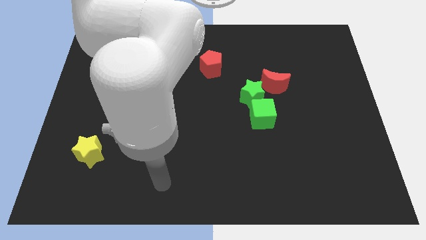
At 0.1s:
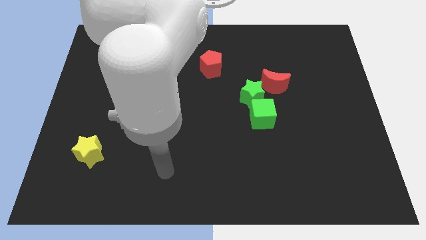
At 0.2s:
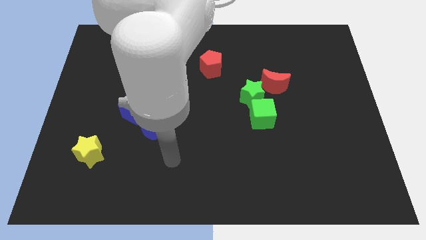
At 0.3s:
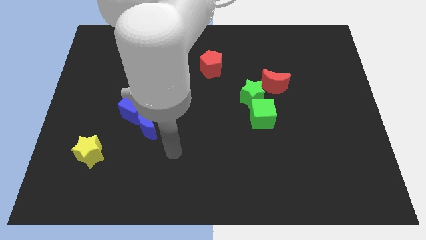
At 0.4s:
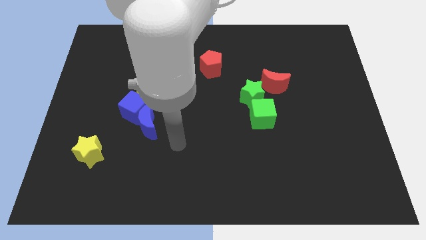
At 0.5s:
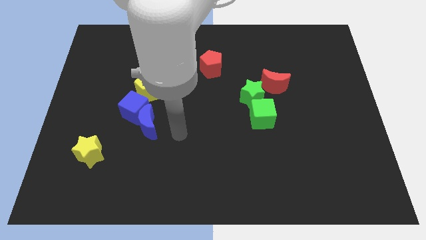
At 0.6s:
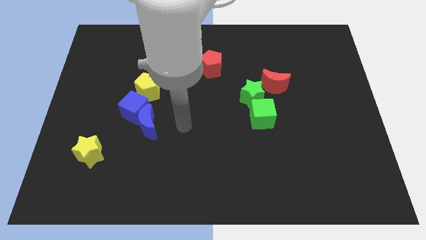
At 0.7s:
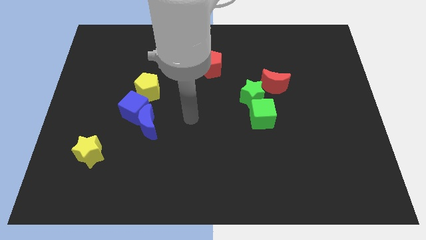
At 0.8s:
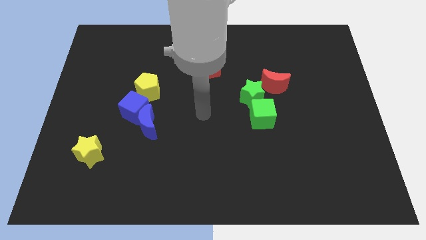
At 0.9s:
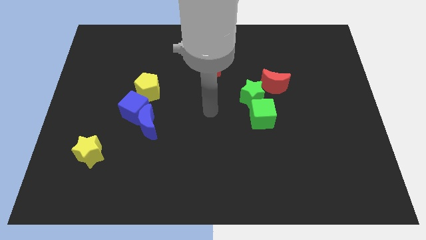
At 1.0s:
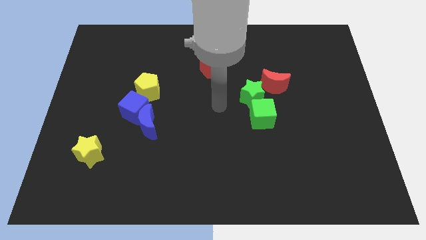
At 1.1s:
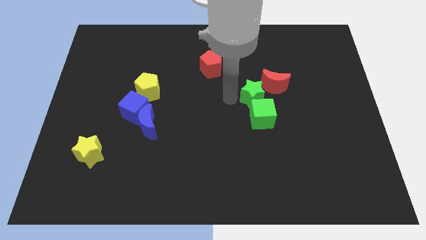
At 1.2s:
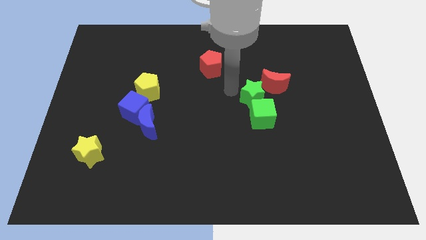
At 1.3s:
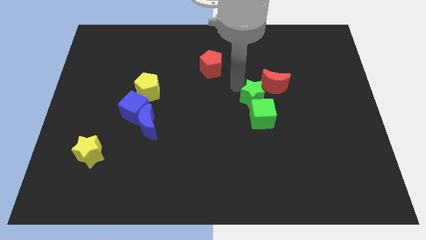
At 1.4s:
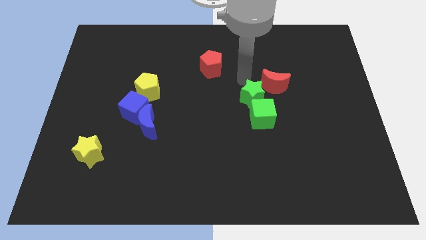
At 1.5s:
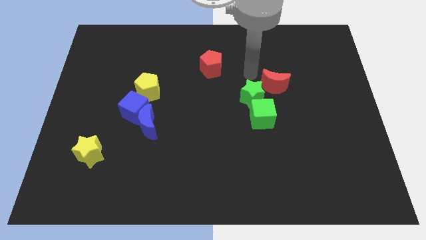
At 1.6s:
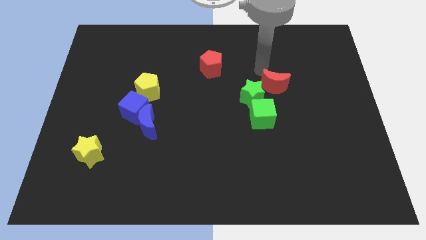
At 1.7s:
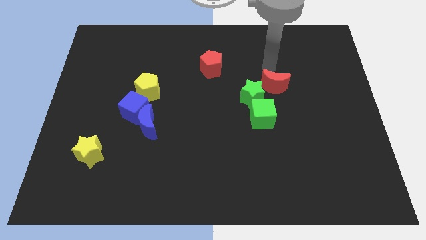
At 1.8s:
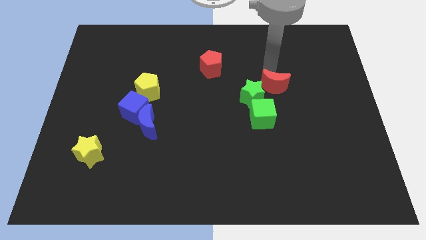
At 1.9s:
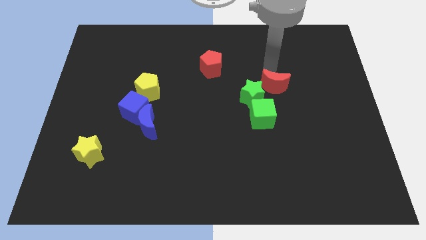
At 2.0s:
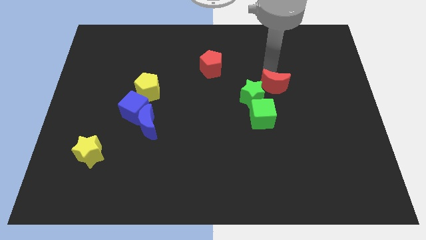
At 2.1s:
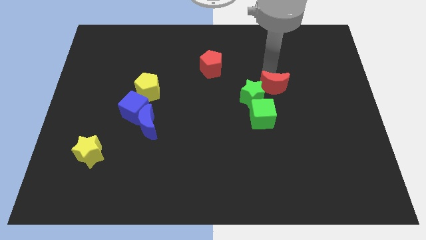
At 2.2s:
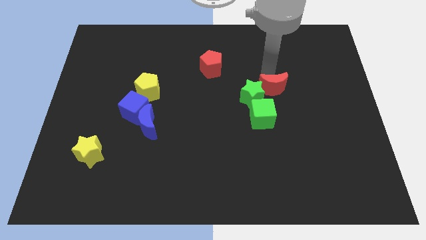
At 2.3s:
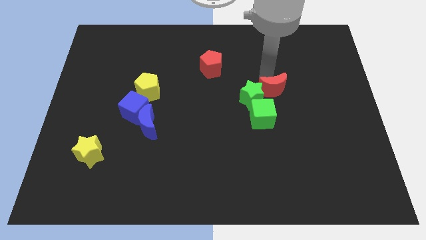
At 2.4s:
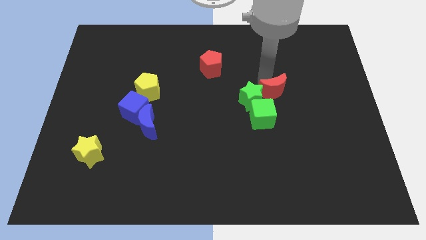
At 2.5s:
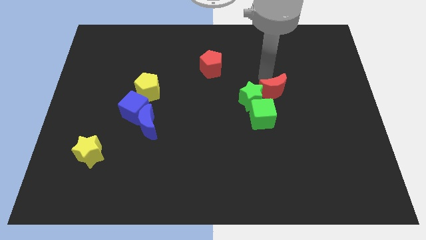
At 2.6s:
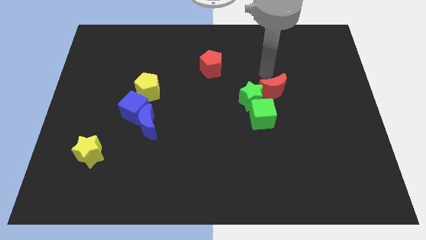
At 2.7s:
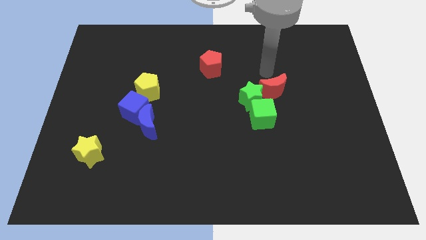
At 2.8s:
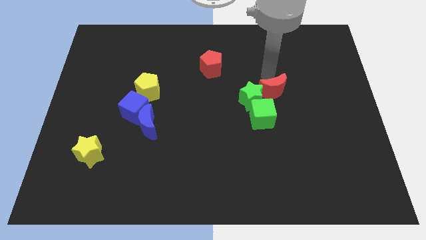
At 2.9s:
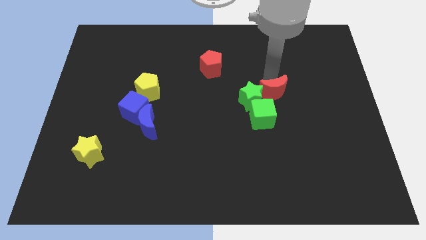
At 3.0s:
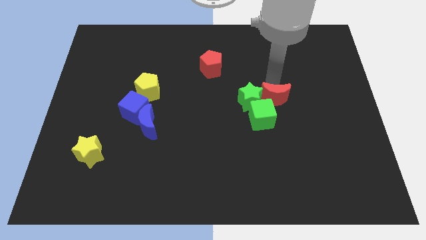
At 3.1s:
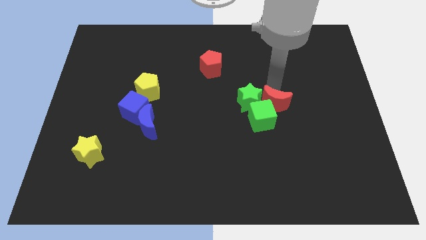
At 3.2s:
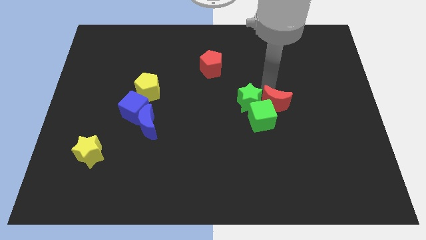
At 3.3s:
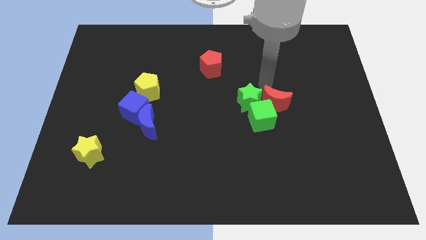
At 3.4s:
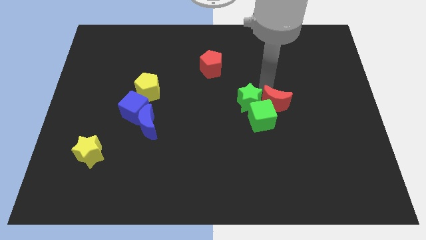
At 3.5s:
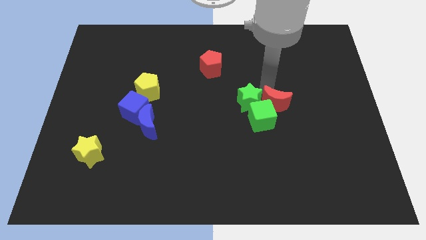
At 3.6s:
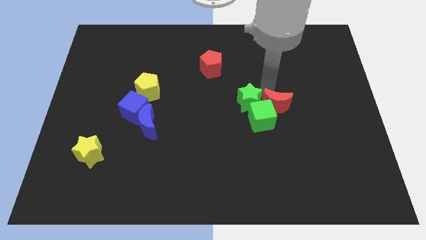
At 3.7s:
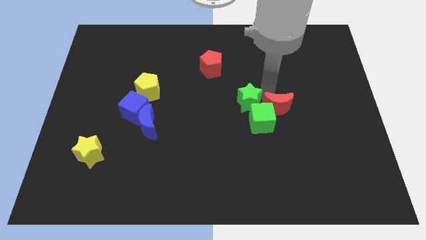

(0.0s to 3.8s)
slightly push the red moon down

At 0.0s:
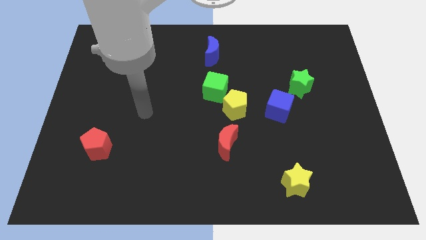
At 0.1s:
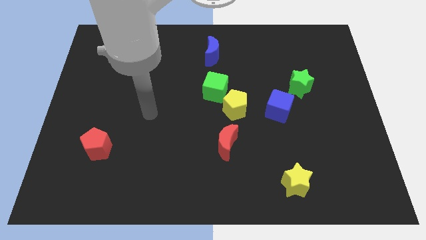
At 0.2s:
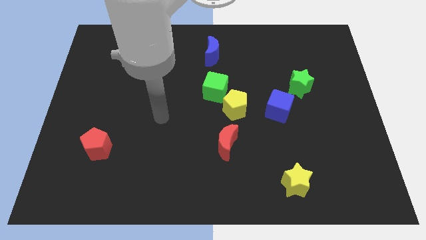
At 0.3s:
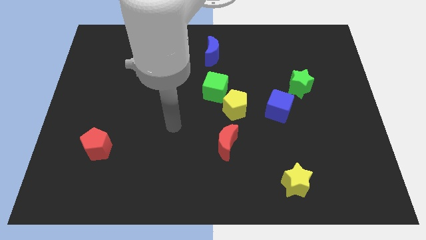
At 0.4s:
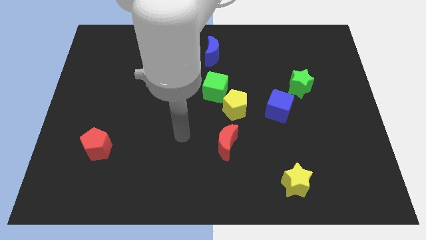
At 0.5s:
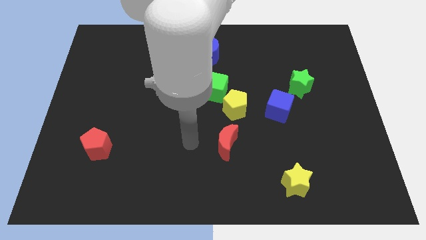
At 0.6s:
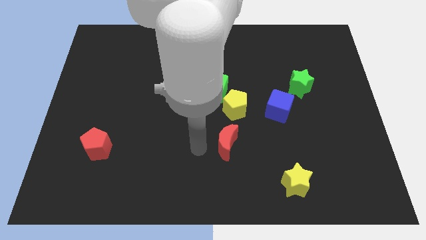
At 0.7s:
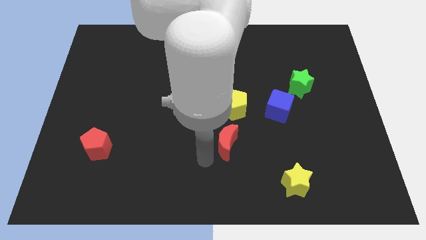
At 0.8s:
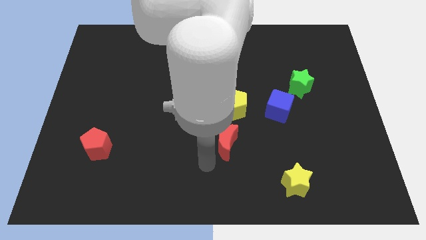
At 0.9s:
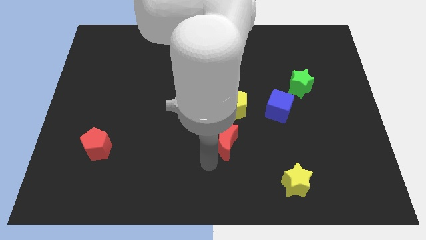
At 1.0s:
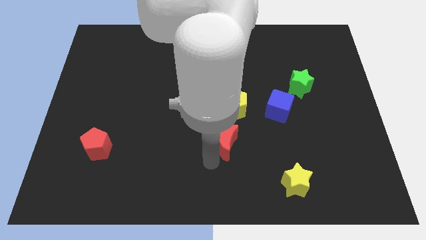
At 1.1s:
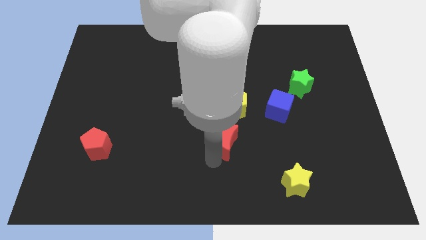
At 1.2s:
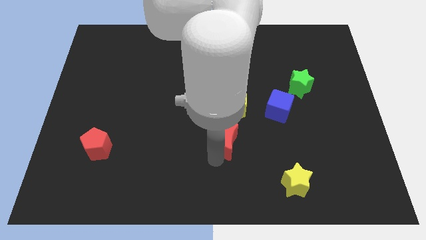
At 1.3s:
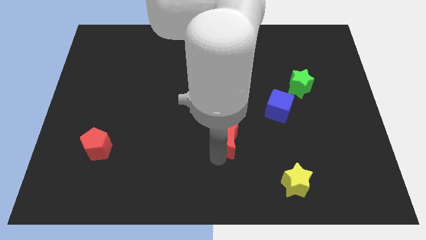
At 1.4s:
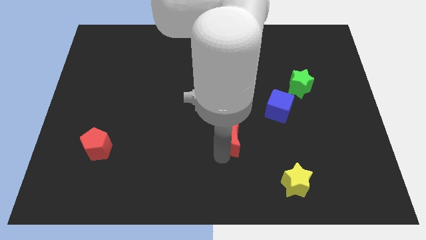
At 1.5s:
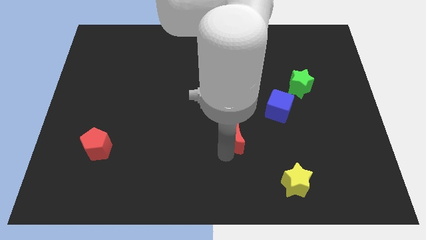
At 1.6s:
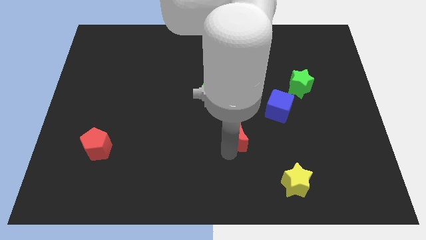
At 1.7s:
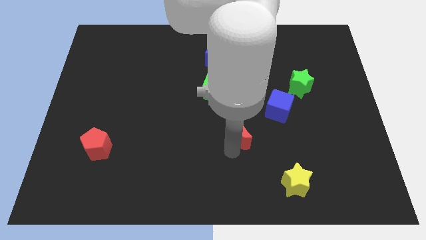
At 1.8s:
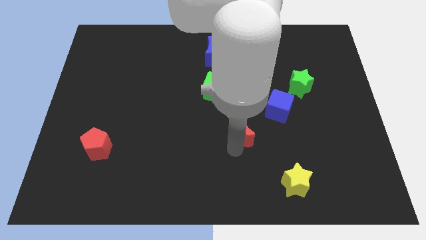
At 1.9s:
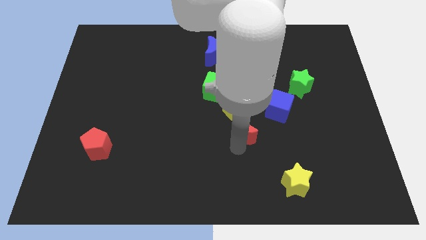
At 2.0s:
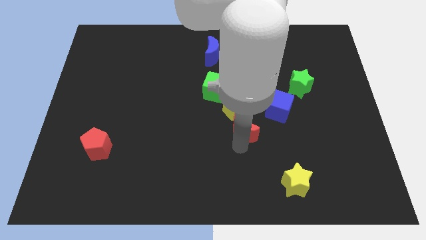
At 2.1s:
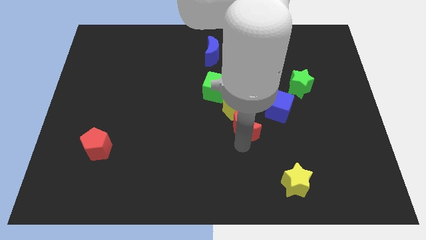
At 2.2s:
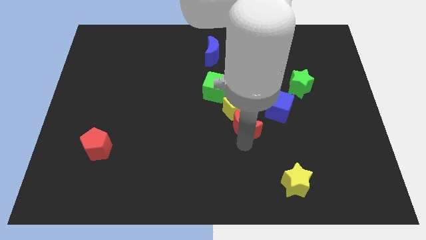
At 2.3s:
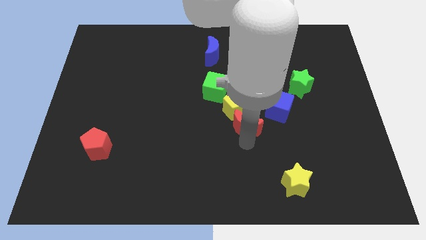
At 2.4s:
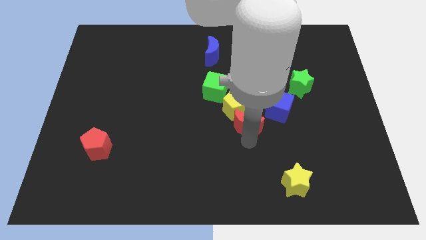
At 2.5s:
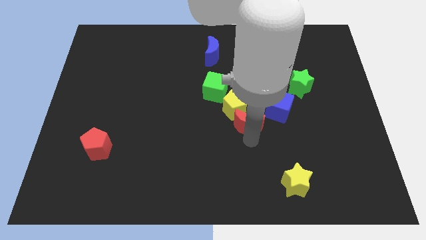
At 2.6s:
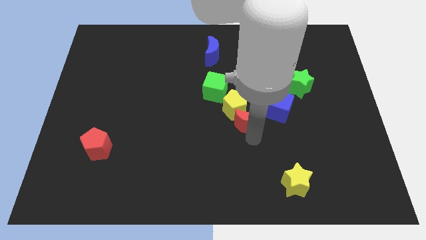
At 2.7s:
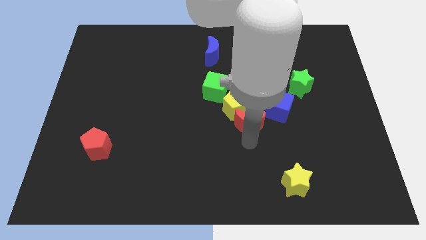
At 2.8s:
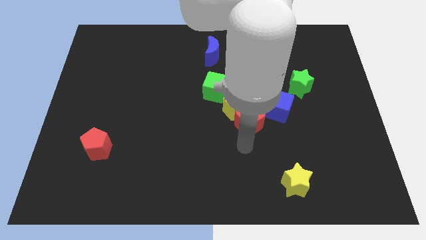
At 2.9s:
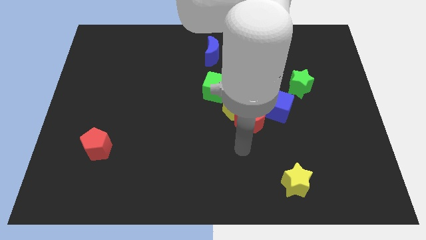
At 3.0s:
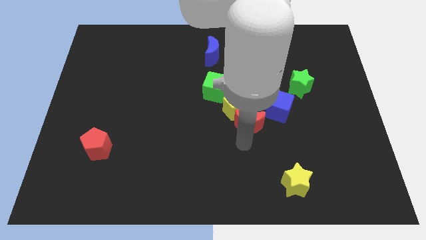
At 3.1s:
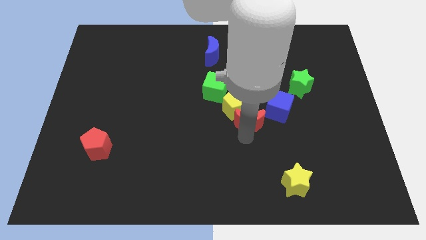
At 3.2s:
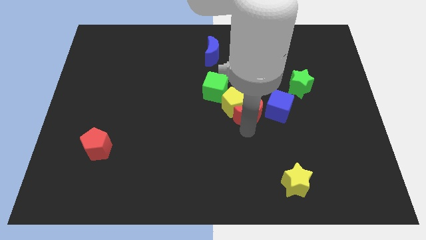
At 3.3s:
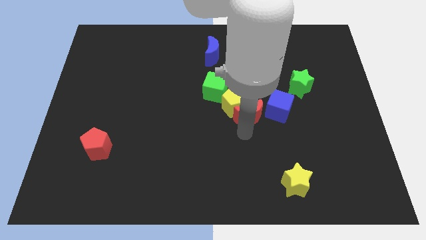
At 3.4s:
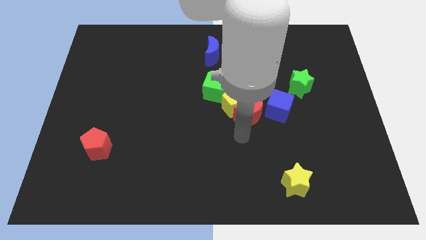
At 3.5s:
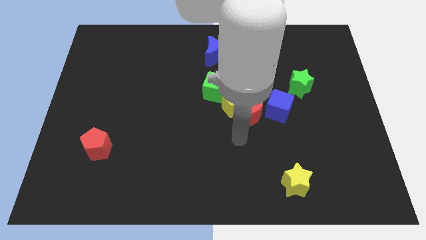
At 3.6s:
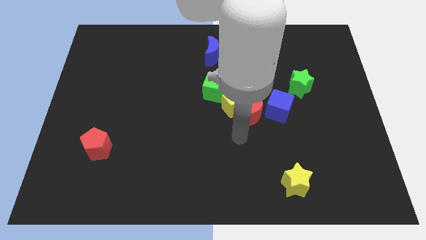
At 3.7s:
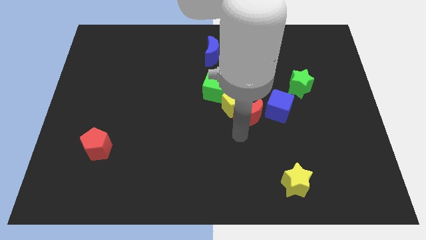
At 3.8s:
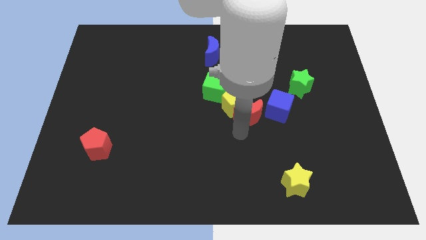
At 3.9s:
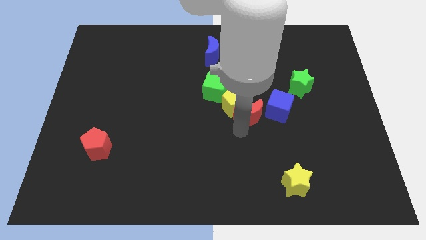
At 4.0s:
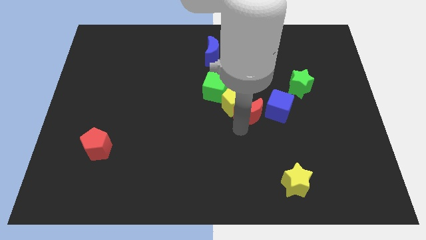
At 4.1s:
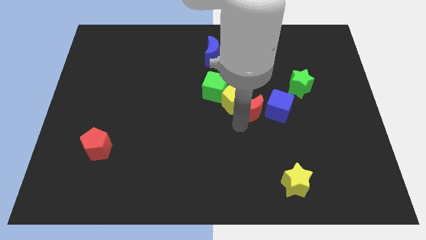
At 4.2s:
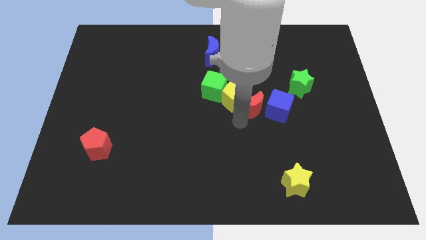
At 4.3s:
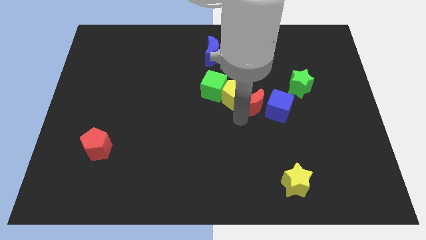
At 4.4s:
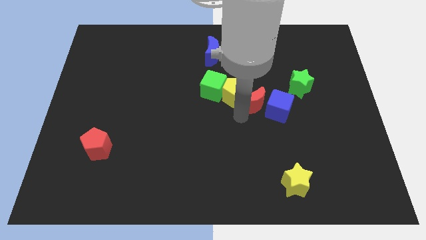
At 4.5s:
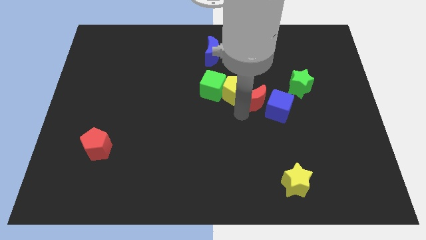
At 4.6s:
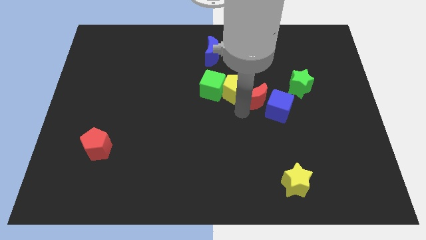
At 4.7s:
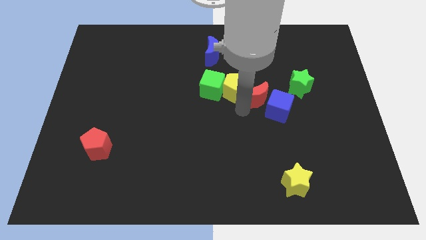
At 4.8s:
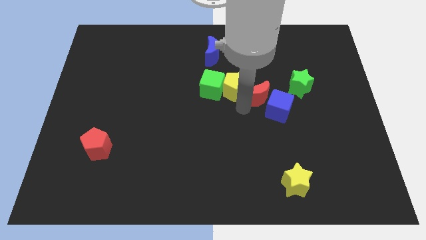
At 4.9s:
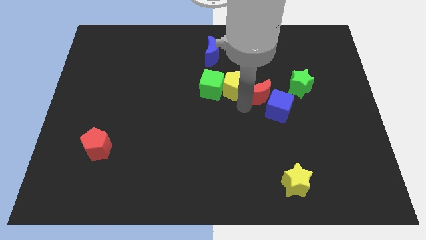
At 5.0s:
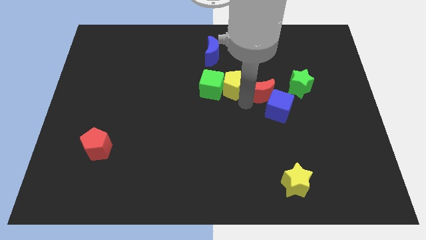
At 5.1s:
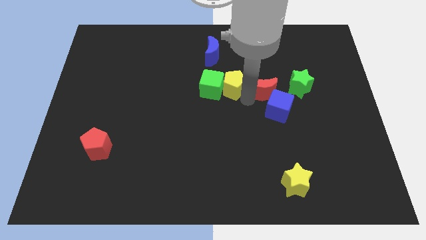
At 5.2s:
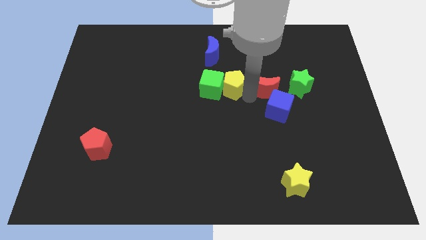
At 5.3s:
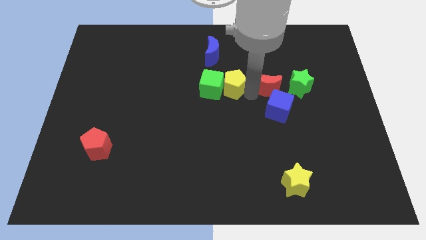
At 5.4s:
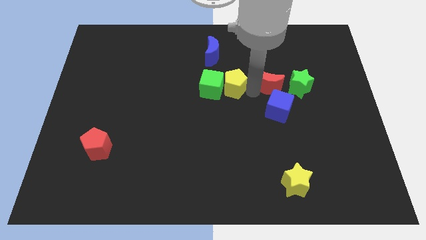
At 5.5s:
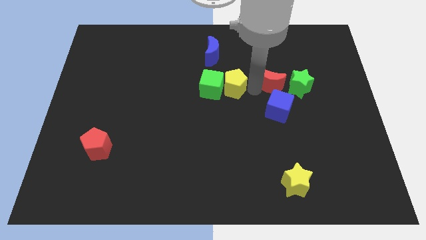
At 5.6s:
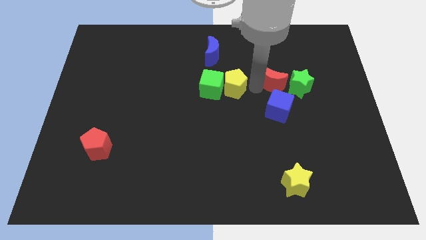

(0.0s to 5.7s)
slide the red moon up and then to the right
